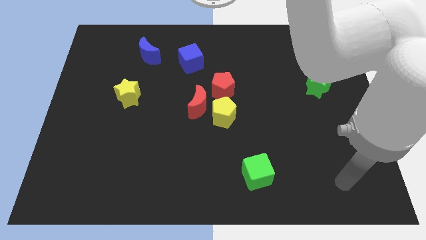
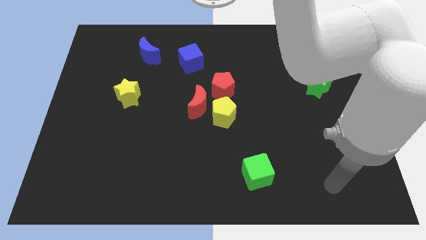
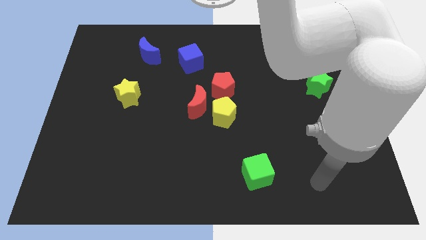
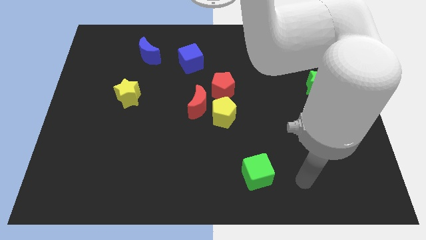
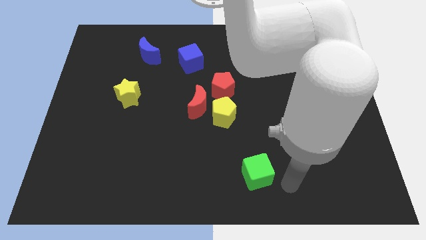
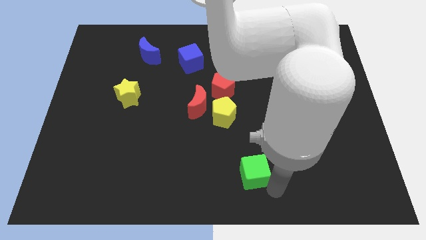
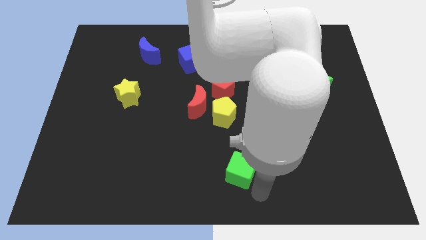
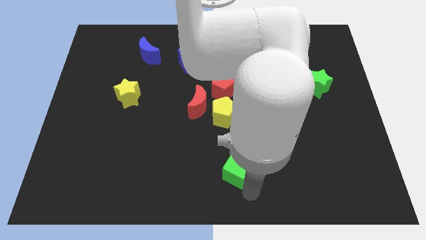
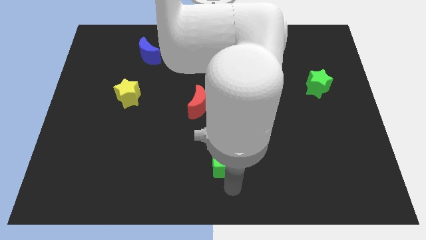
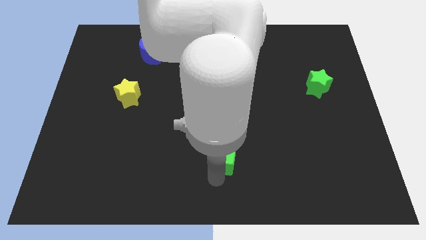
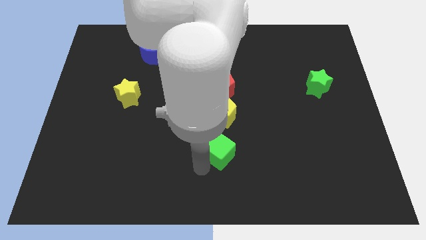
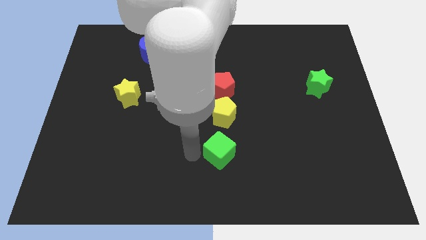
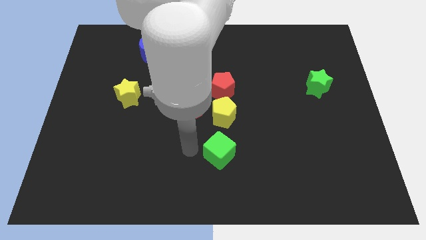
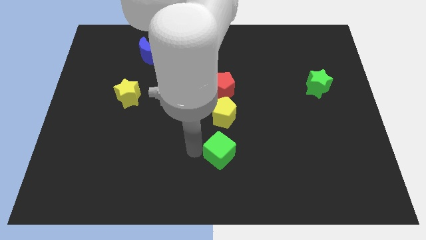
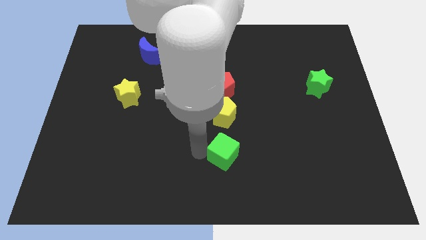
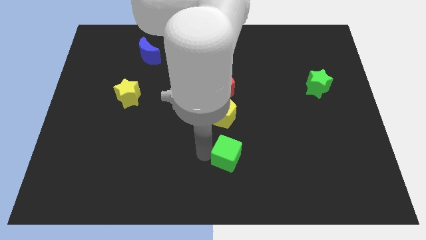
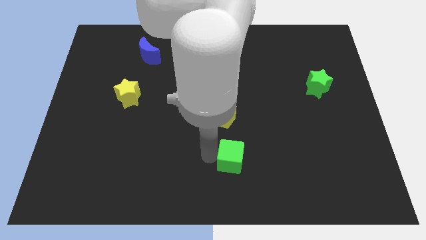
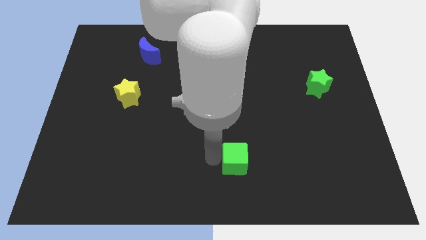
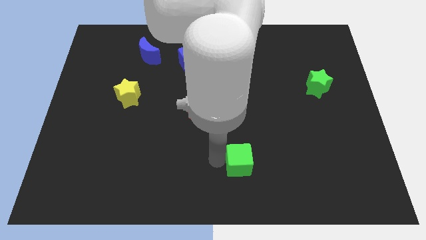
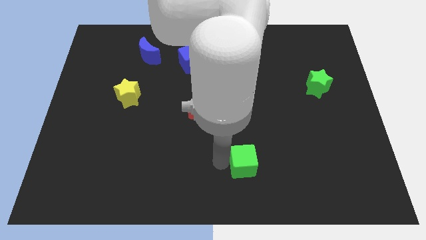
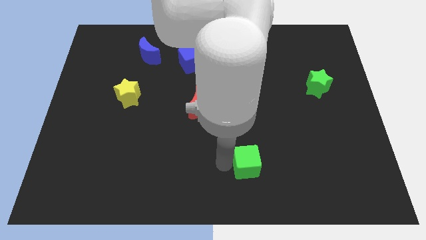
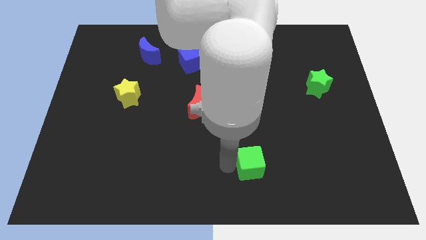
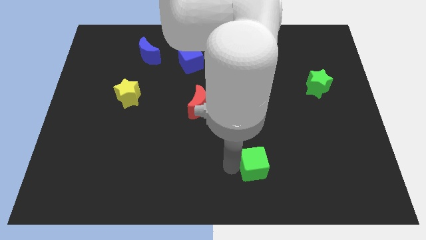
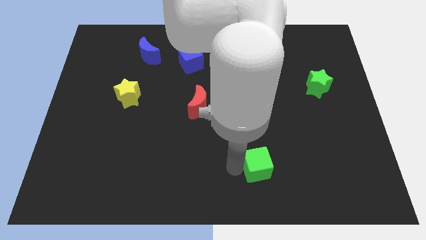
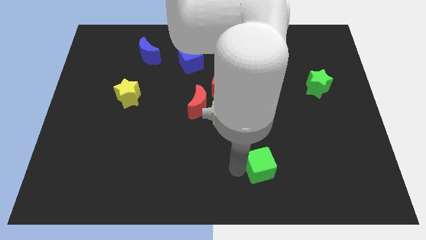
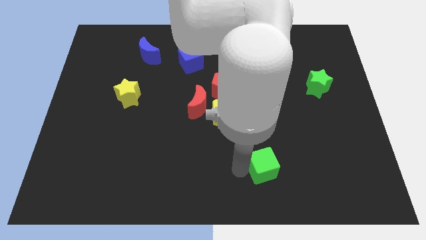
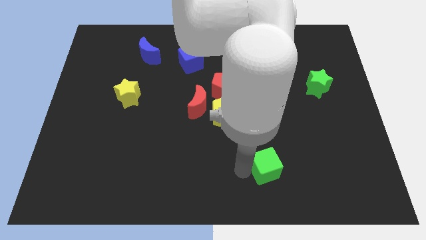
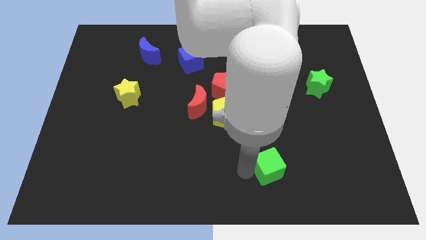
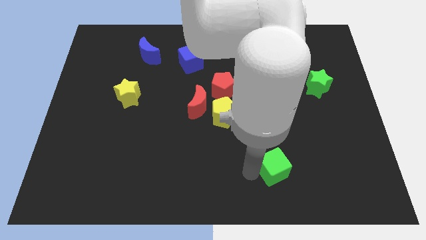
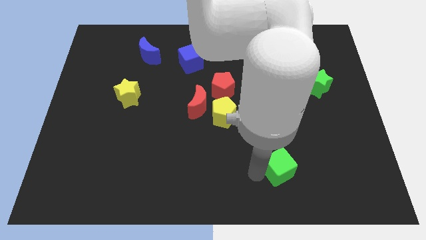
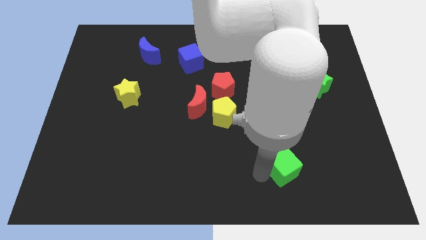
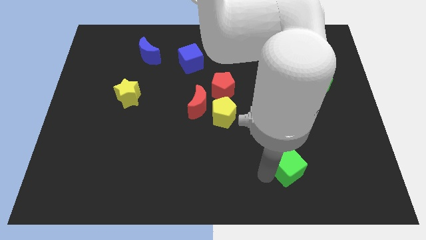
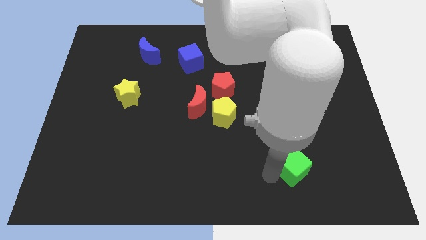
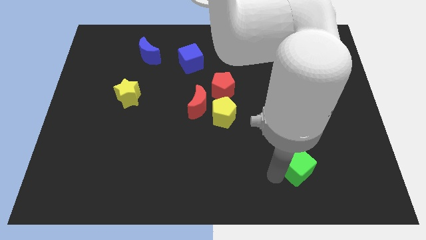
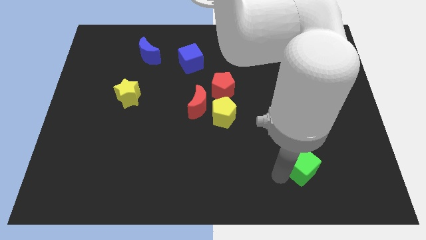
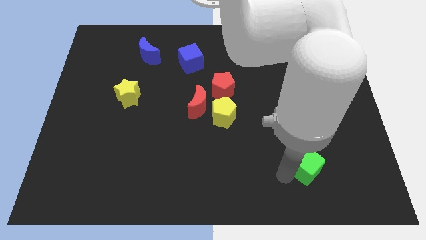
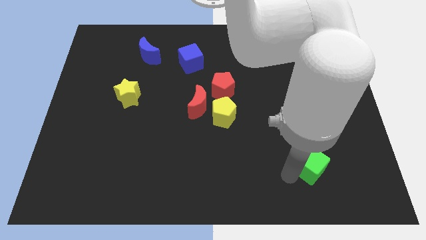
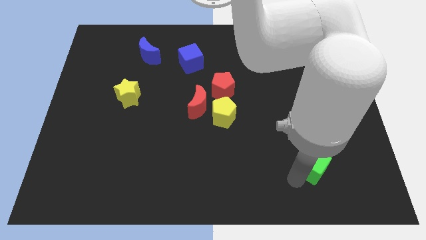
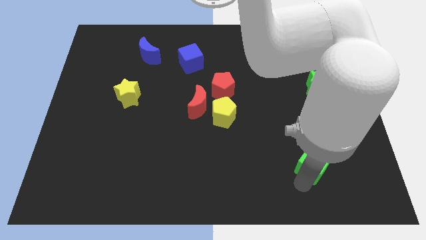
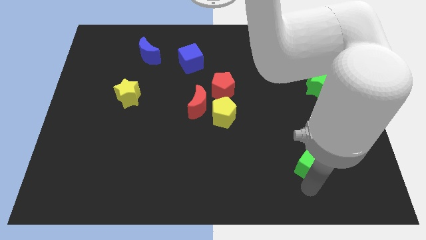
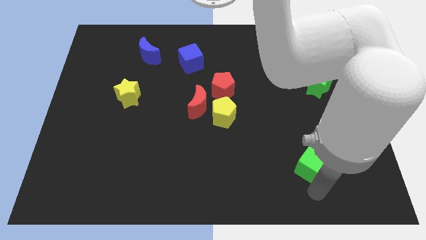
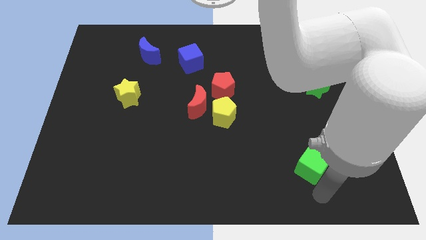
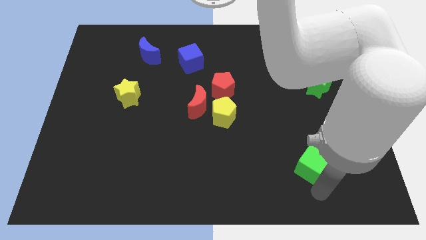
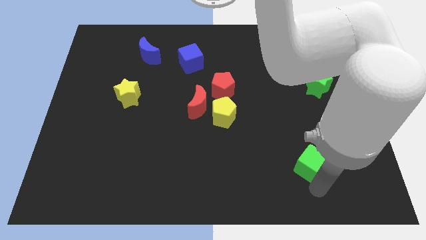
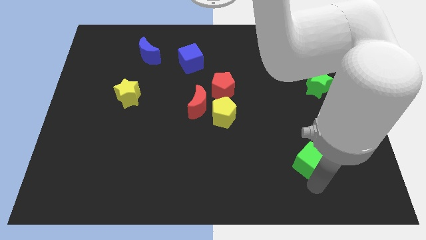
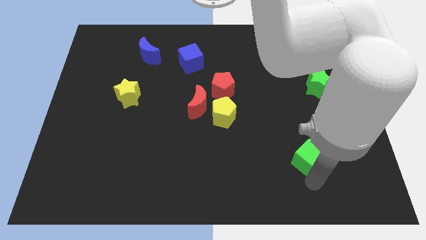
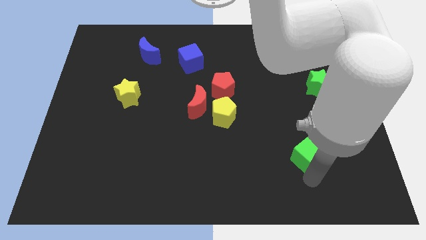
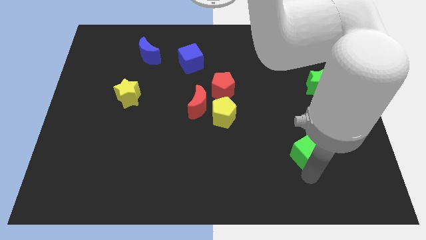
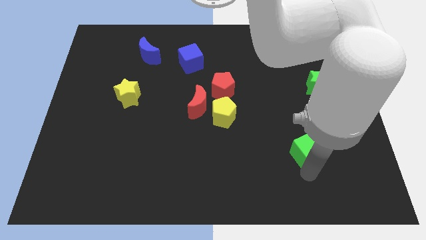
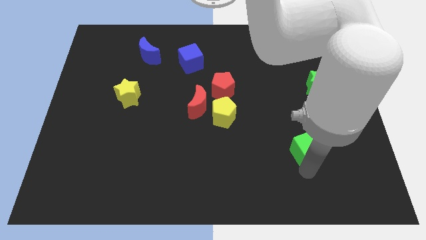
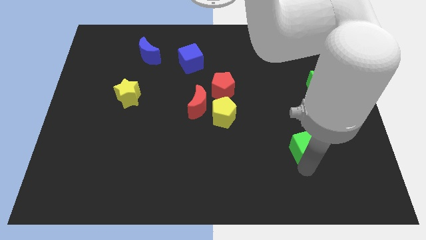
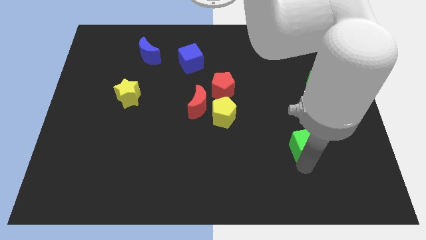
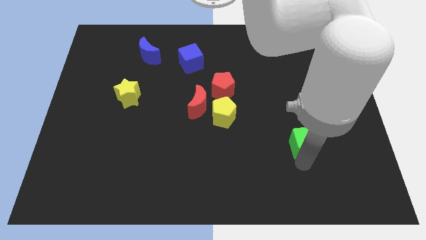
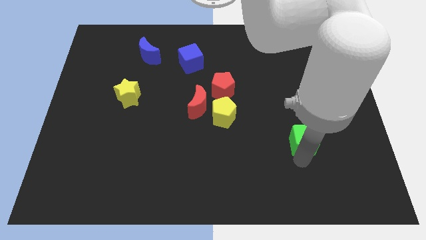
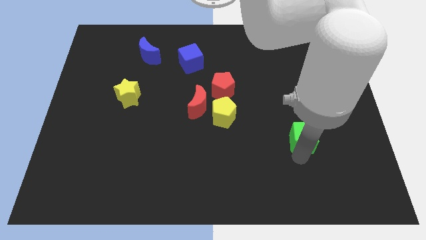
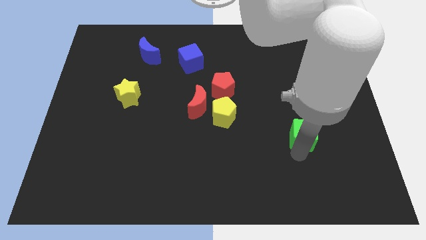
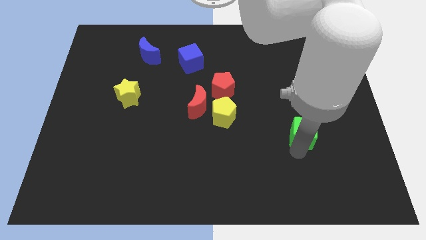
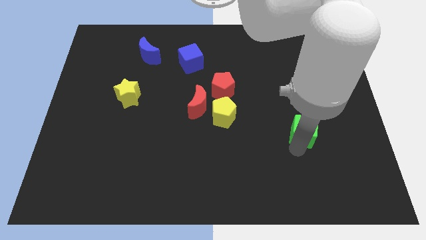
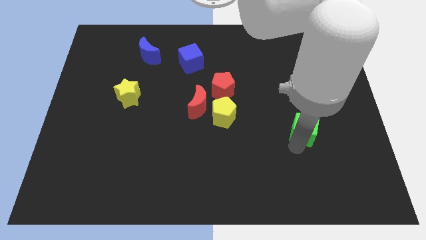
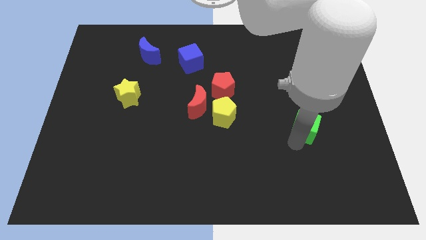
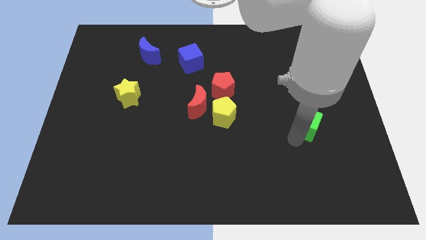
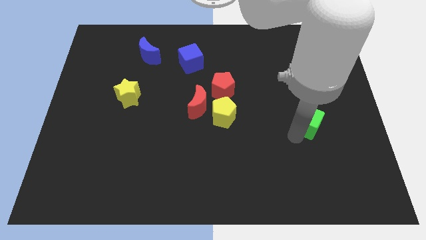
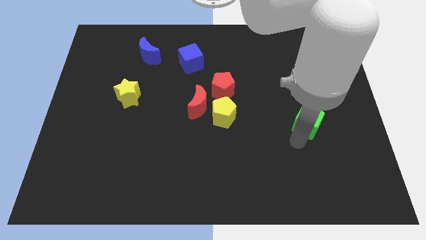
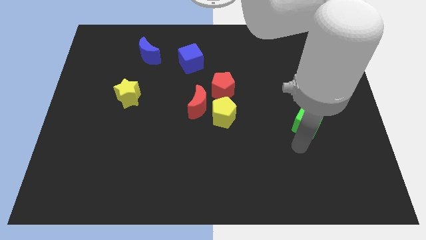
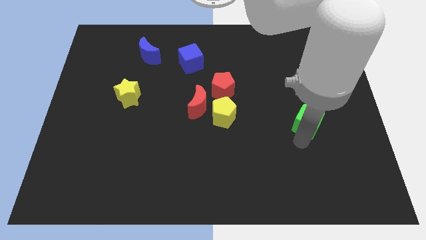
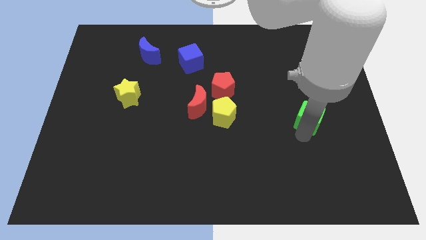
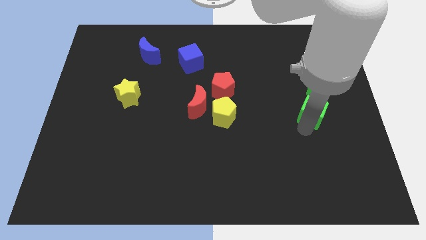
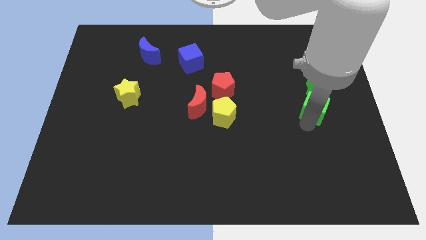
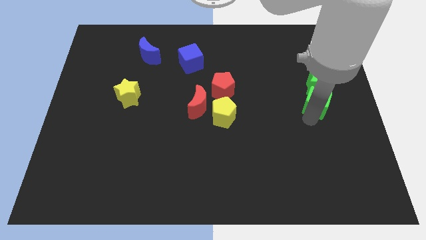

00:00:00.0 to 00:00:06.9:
push the green cube next to the green star
